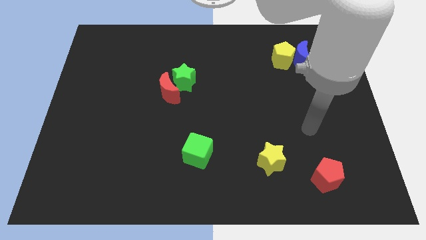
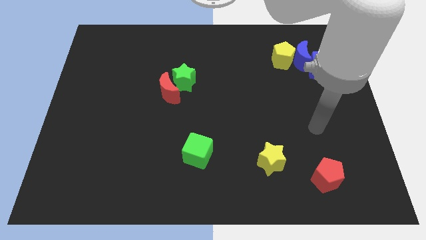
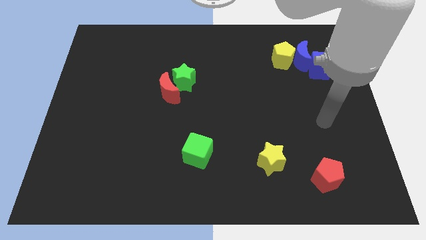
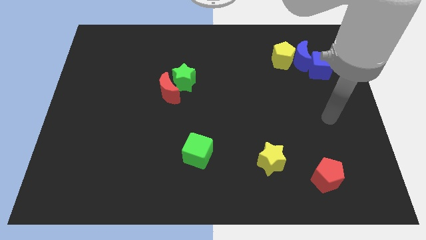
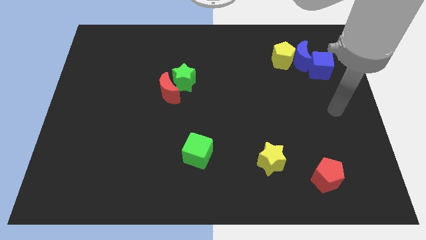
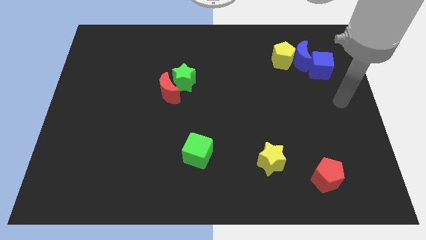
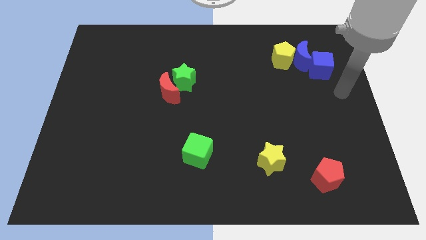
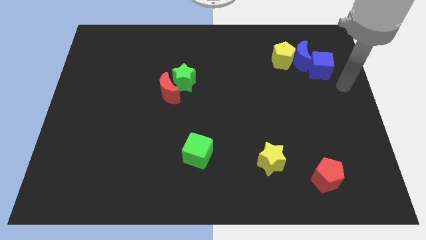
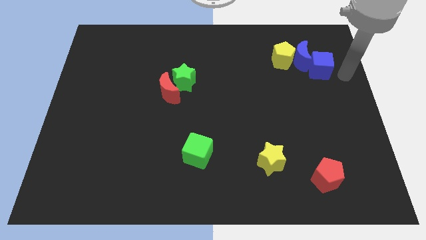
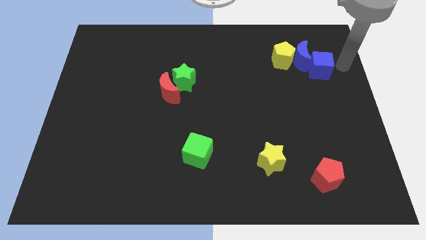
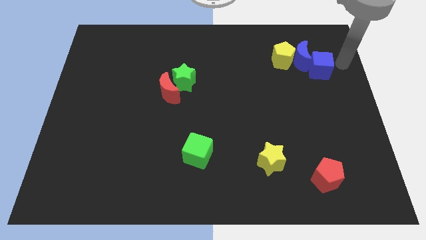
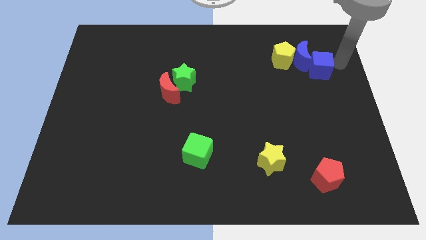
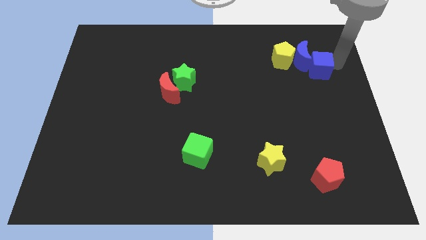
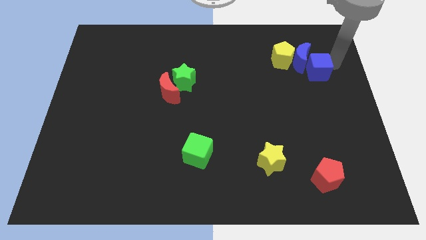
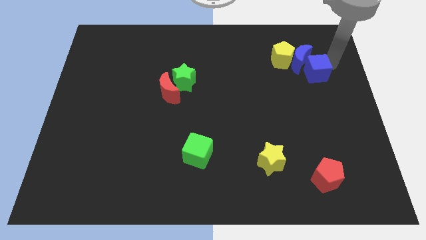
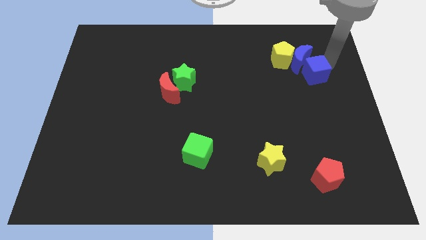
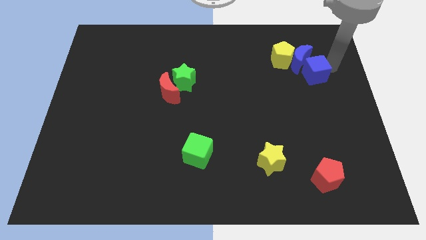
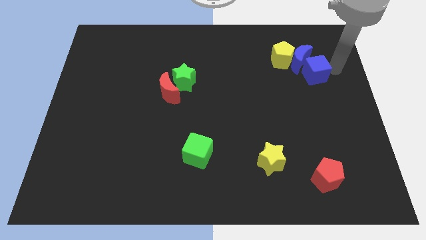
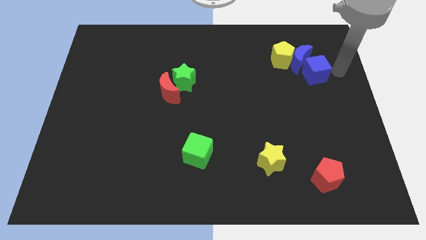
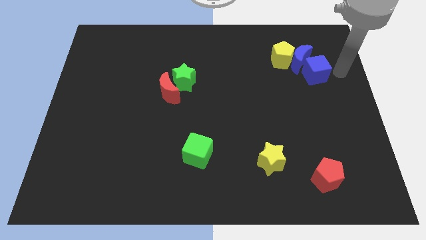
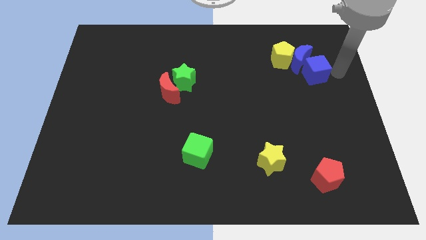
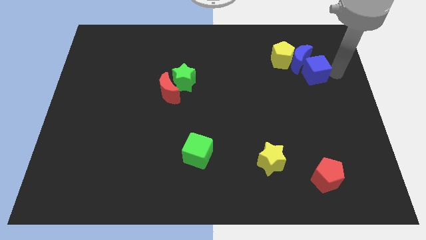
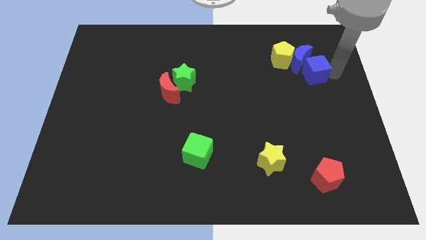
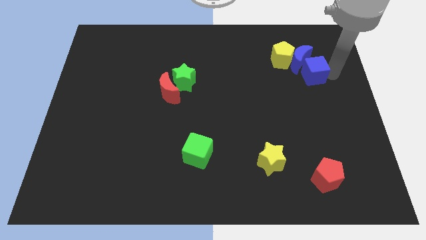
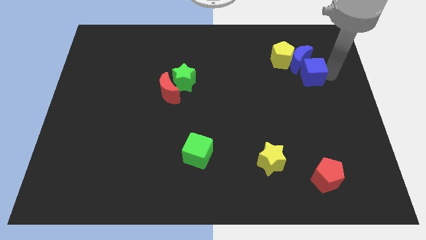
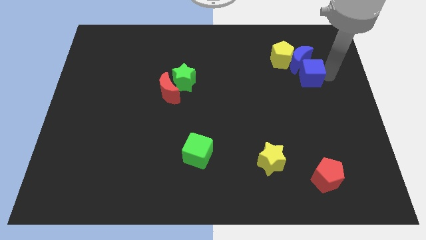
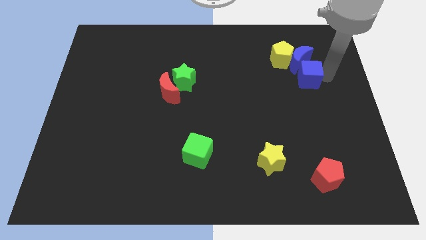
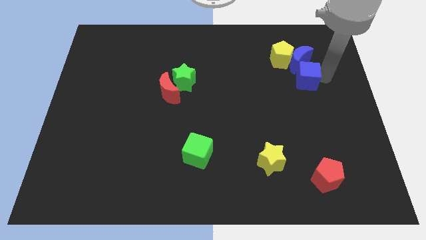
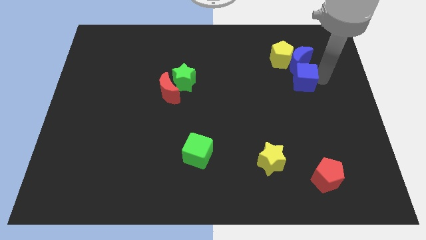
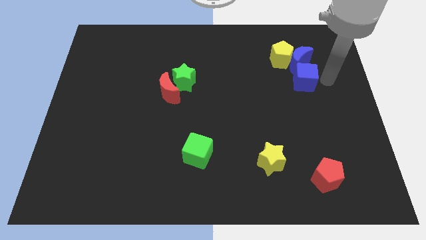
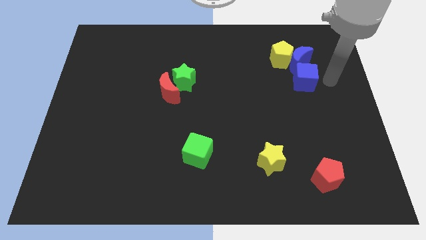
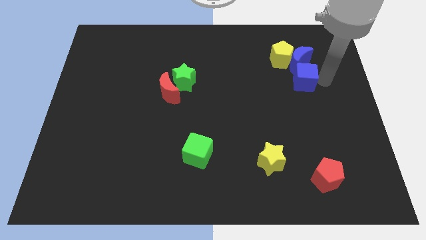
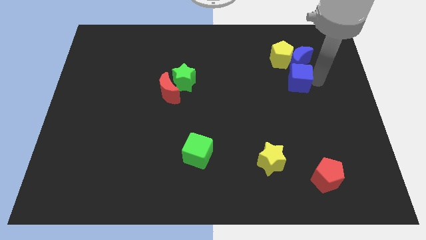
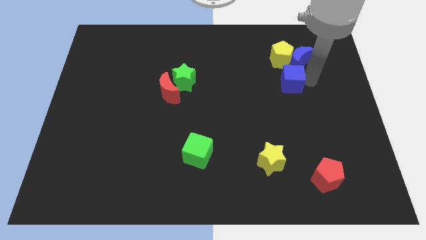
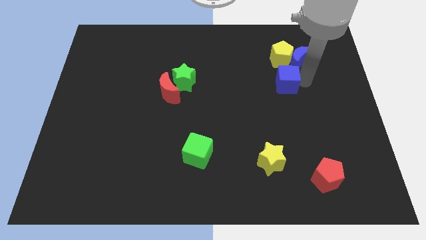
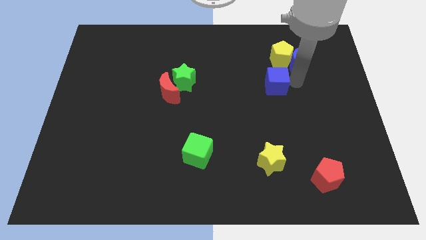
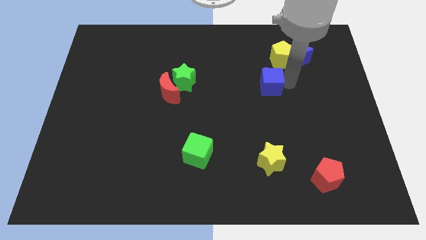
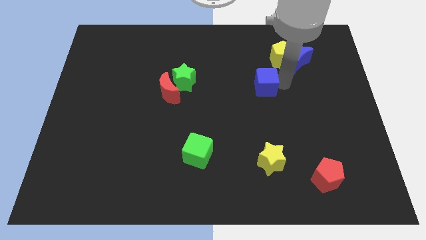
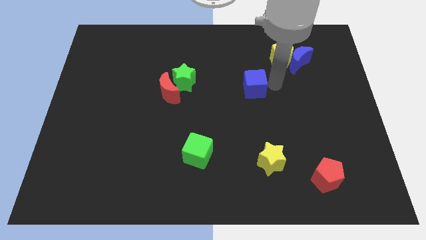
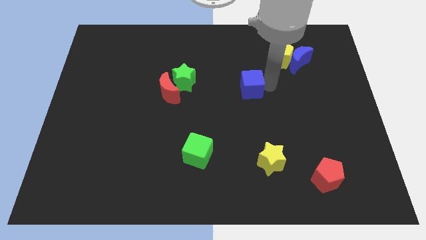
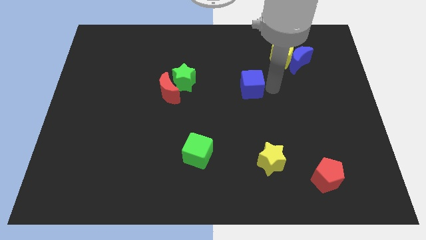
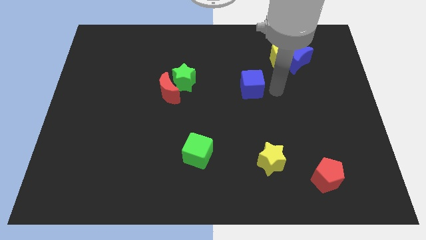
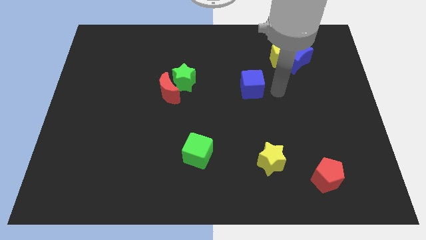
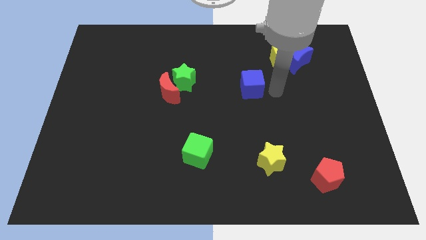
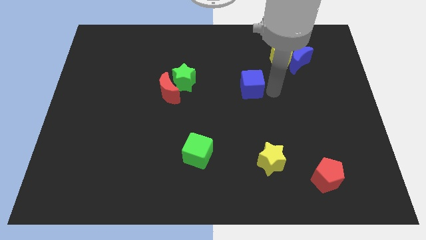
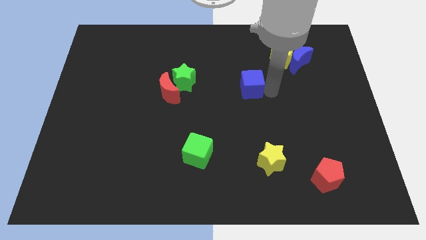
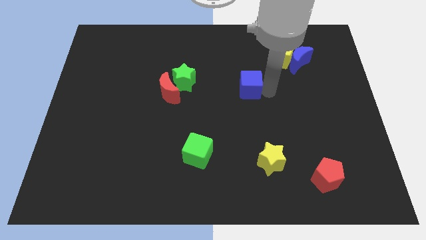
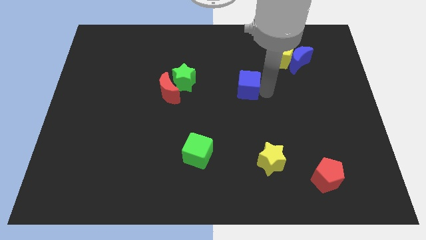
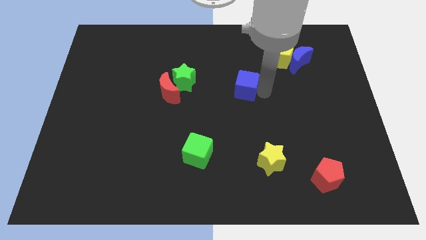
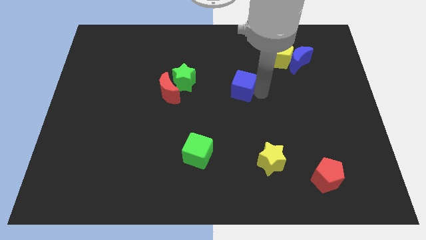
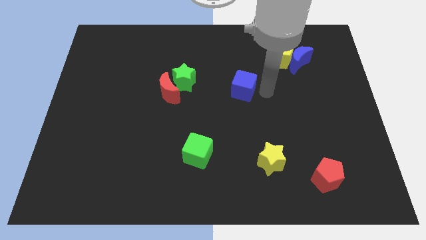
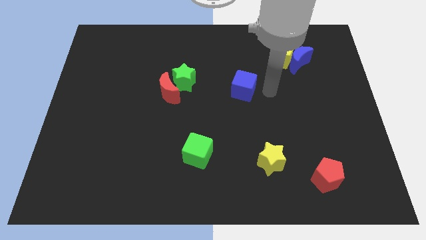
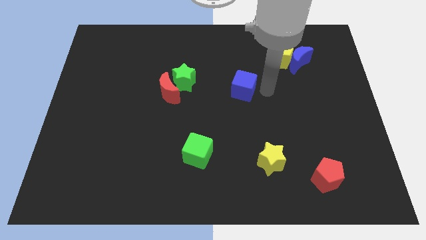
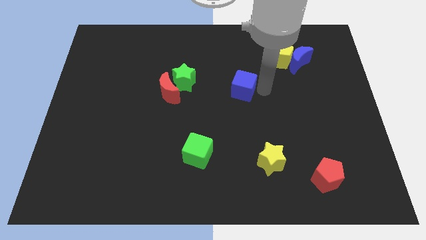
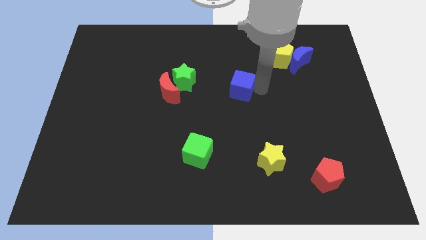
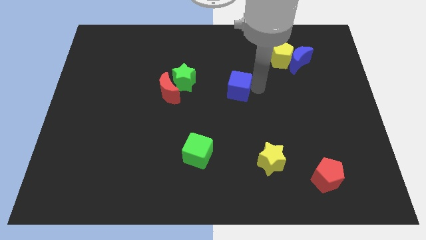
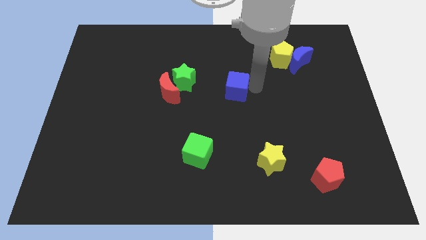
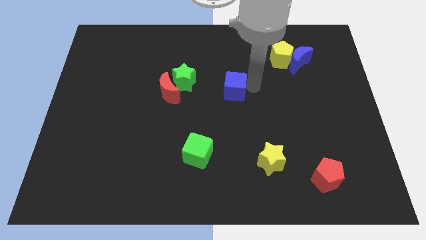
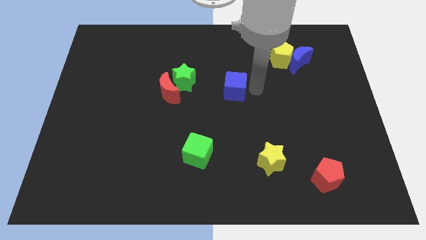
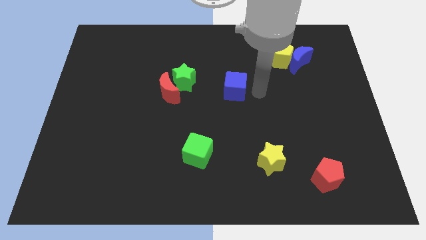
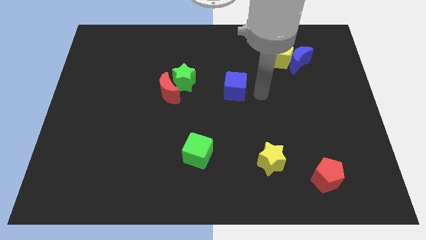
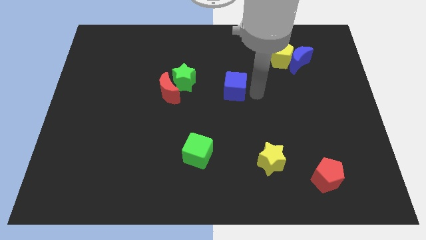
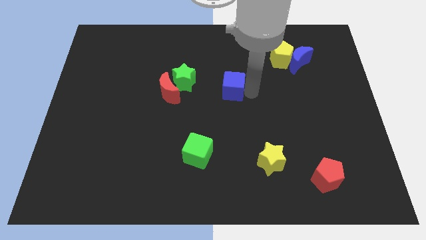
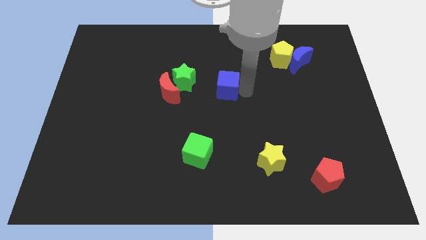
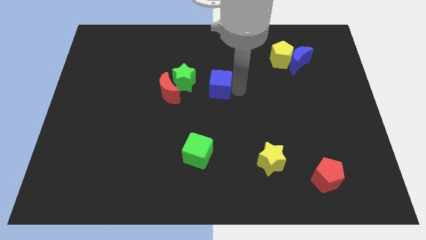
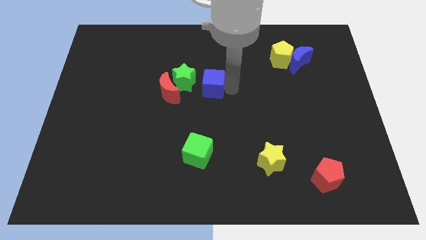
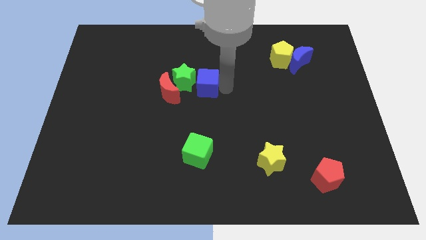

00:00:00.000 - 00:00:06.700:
put the blue cube towards the green star

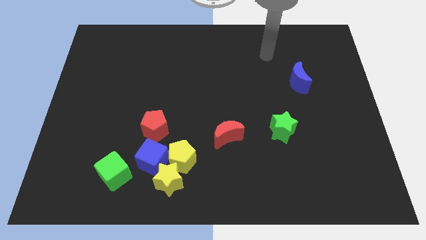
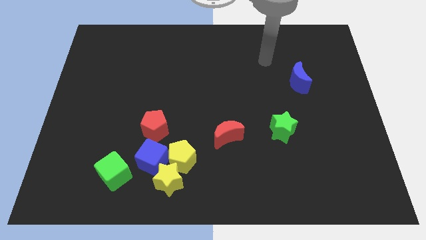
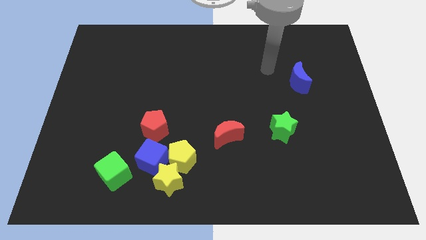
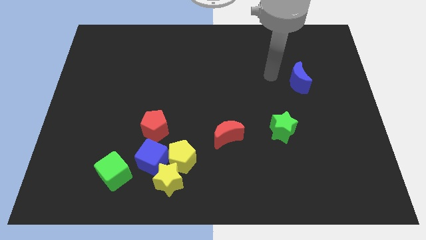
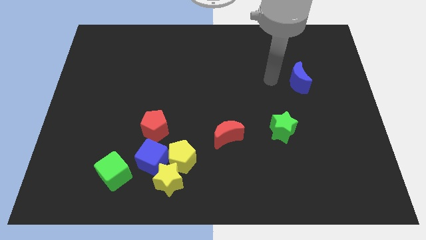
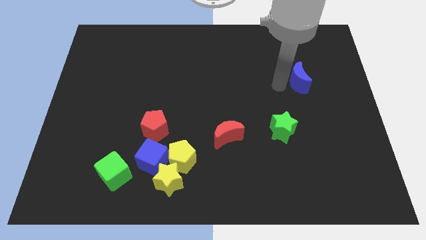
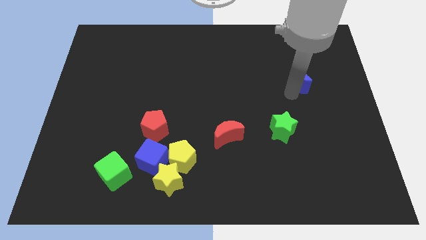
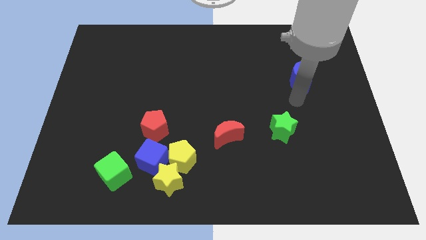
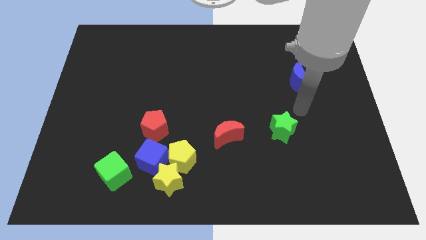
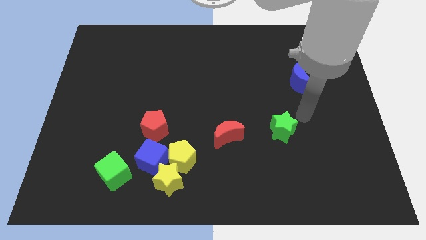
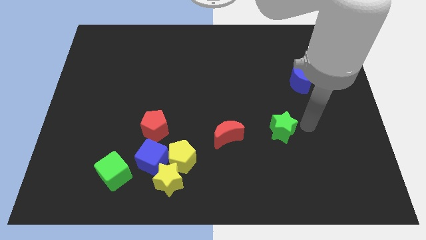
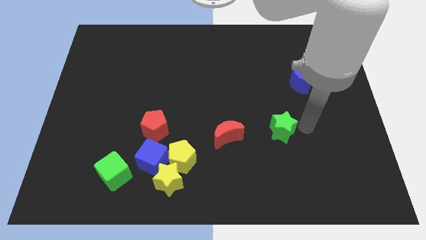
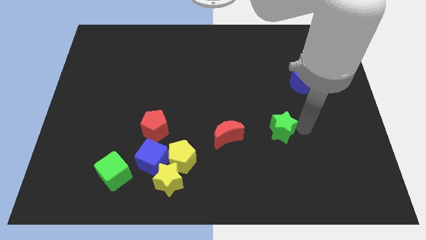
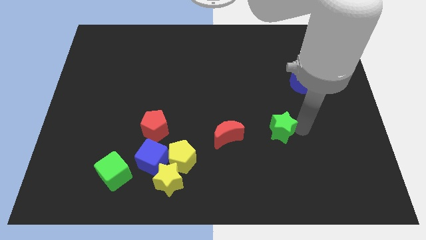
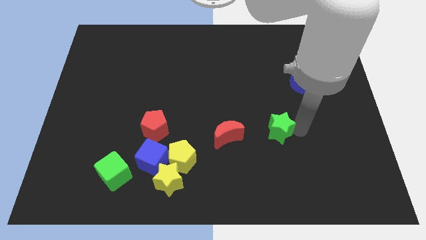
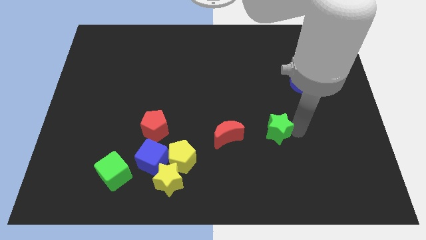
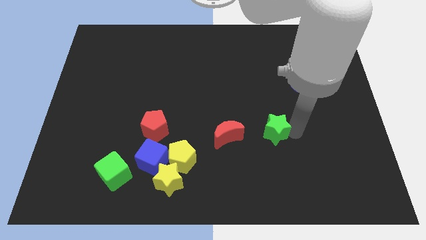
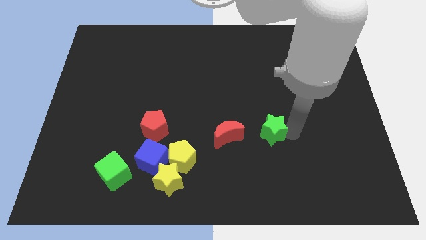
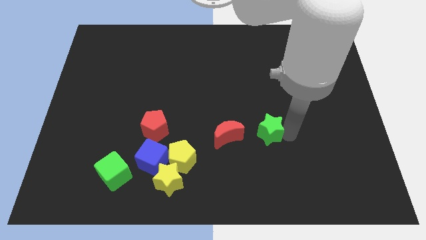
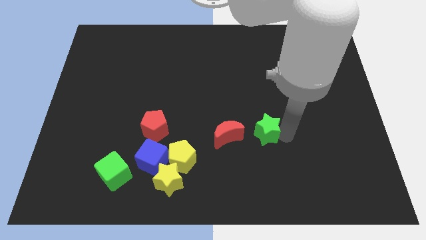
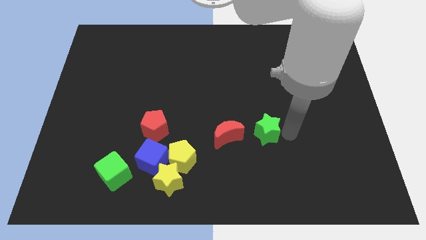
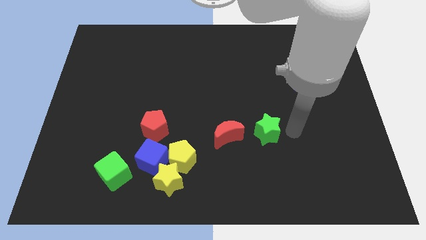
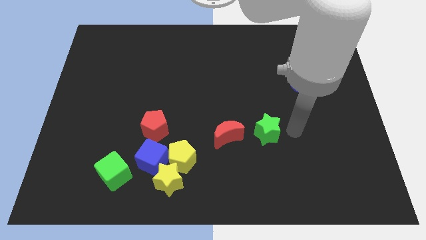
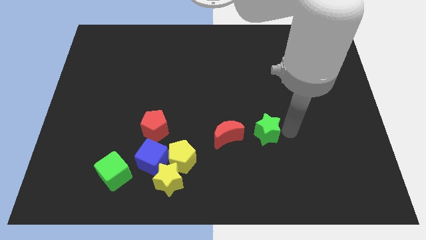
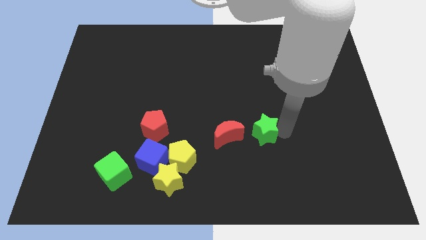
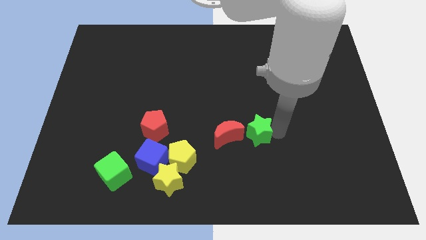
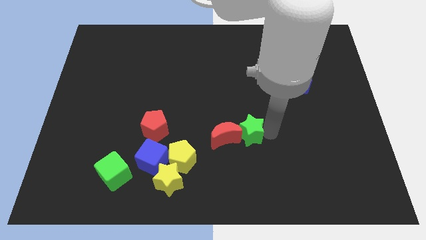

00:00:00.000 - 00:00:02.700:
put the green star towards the red moon
